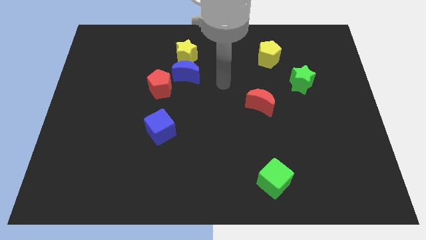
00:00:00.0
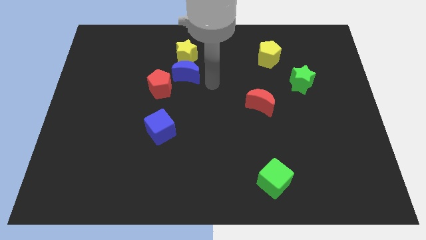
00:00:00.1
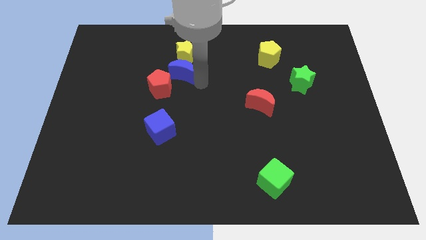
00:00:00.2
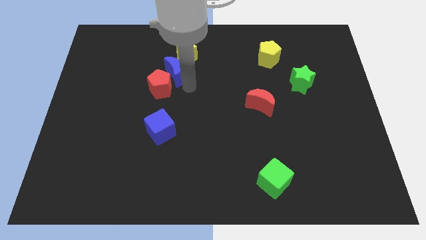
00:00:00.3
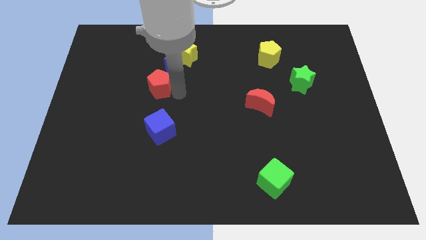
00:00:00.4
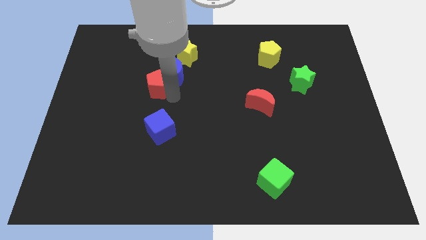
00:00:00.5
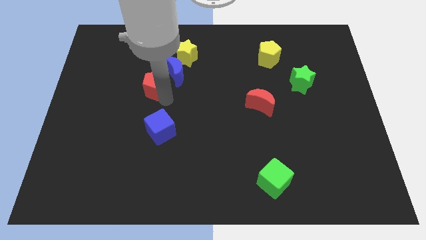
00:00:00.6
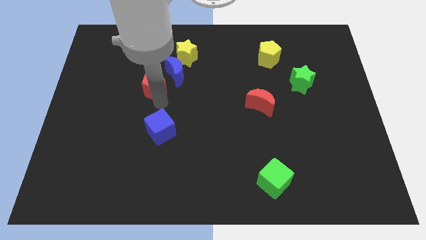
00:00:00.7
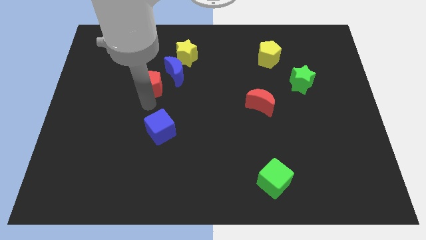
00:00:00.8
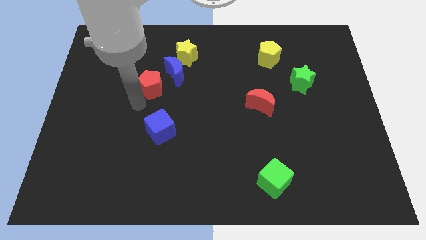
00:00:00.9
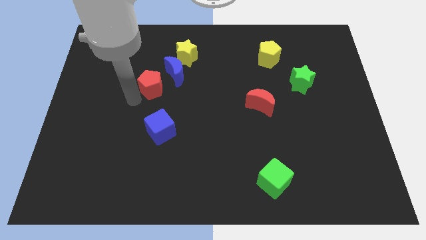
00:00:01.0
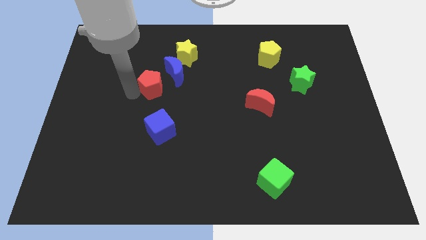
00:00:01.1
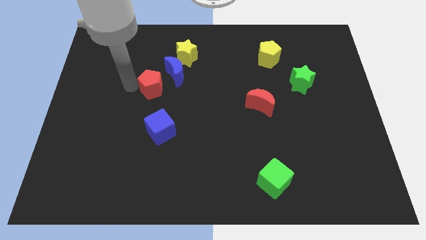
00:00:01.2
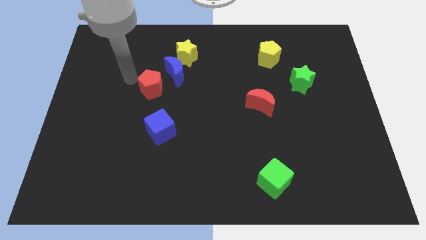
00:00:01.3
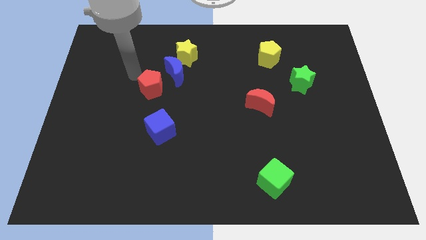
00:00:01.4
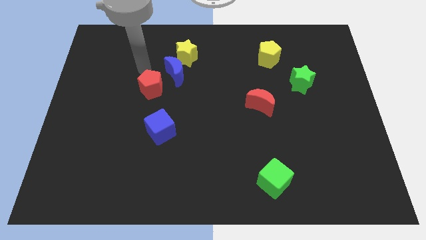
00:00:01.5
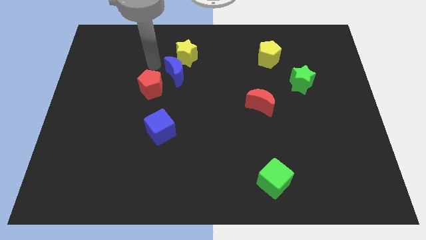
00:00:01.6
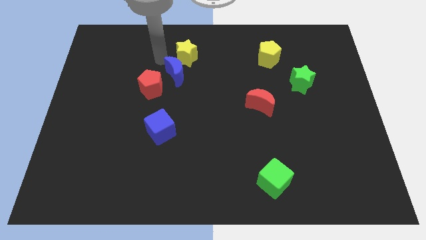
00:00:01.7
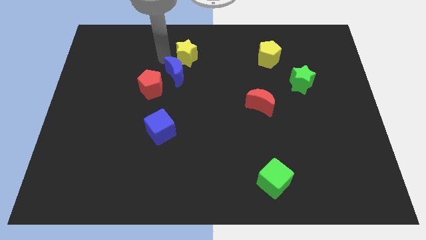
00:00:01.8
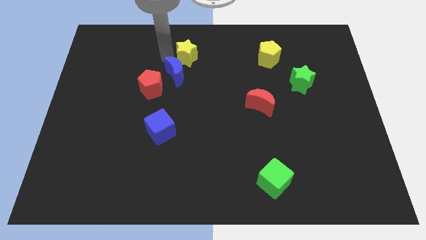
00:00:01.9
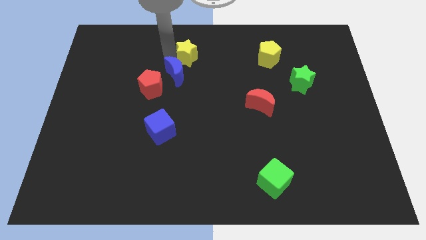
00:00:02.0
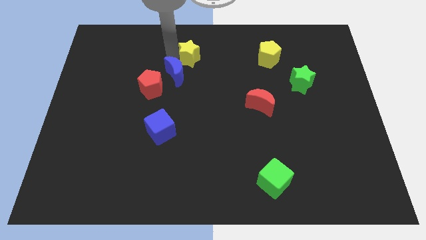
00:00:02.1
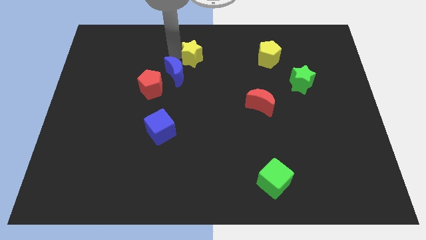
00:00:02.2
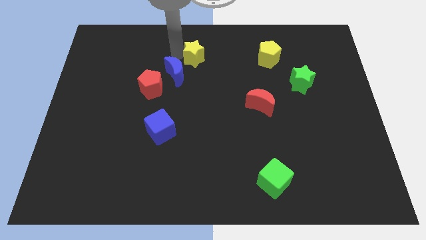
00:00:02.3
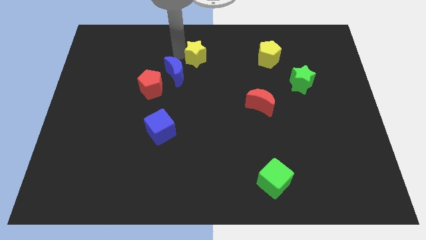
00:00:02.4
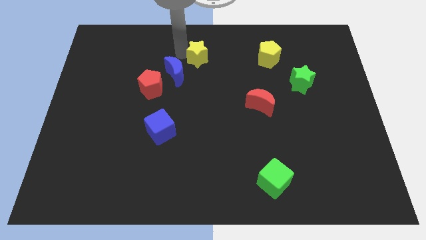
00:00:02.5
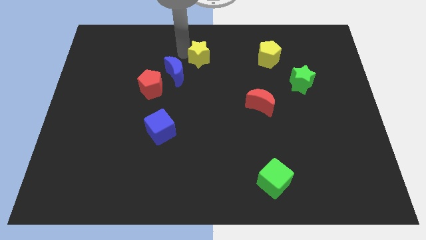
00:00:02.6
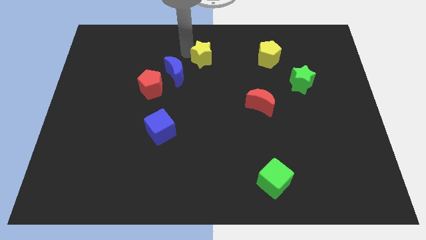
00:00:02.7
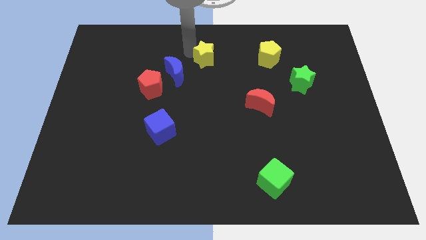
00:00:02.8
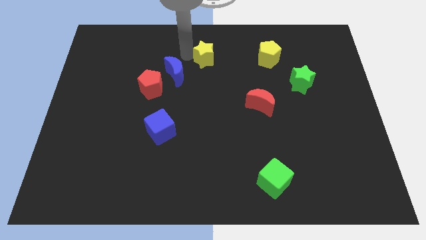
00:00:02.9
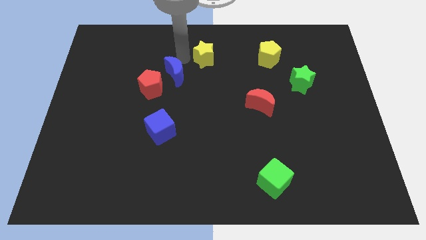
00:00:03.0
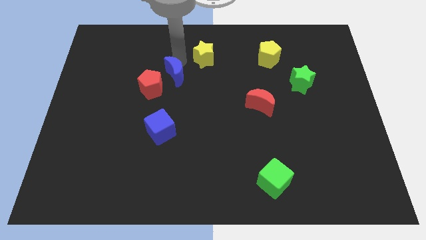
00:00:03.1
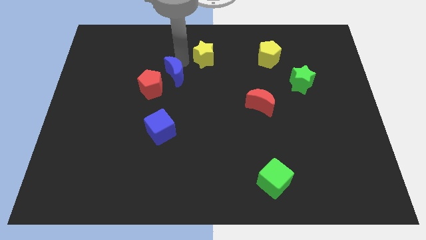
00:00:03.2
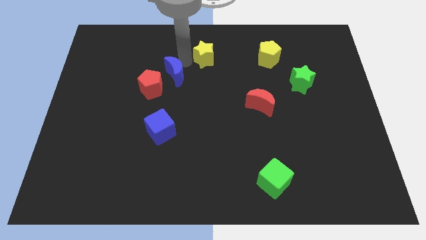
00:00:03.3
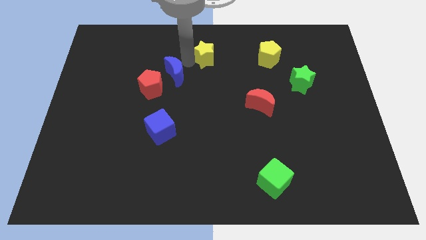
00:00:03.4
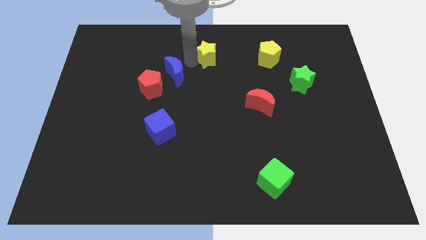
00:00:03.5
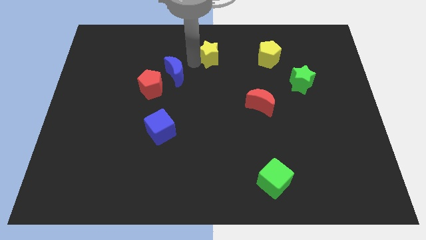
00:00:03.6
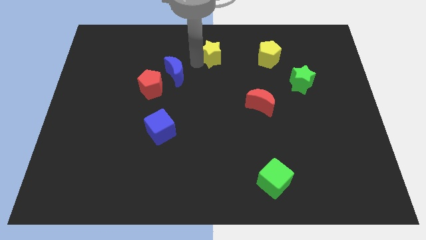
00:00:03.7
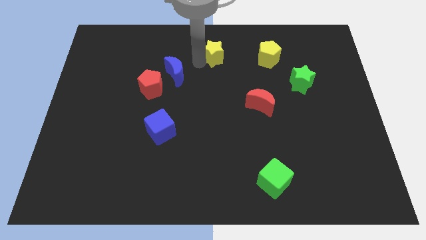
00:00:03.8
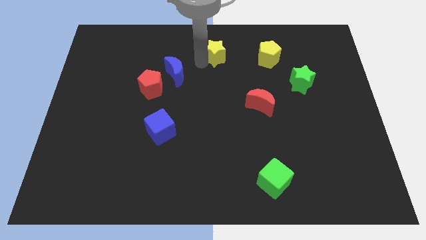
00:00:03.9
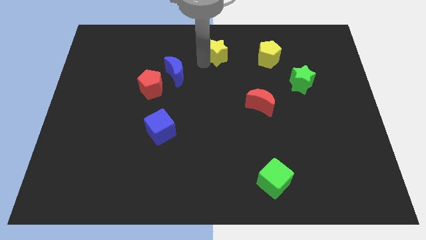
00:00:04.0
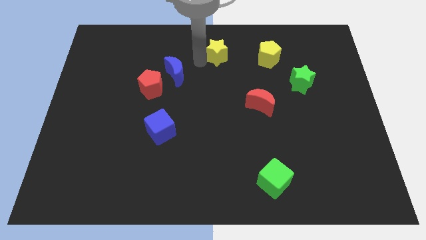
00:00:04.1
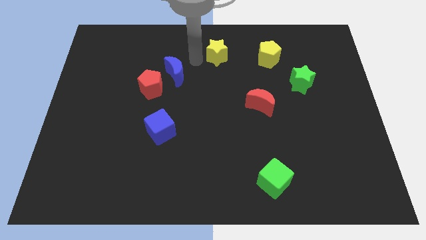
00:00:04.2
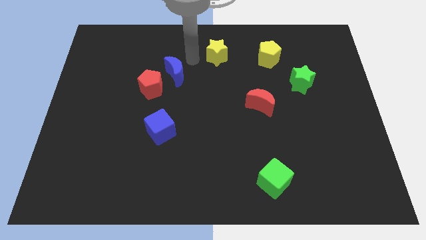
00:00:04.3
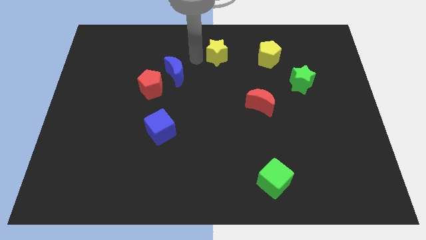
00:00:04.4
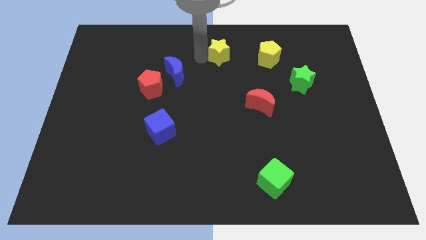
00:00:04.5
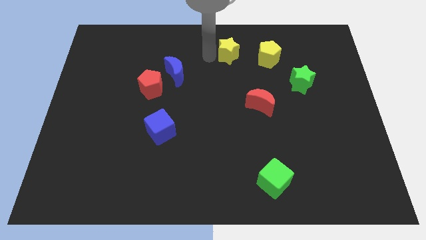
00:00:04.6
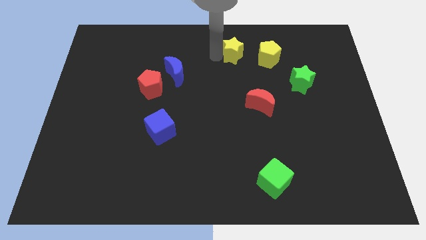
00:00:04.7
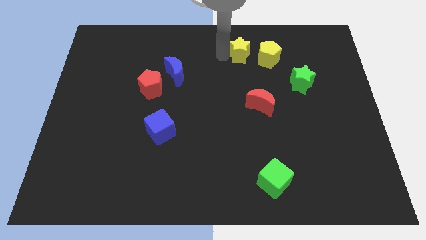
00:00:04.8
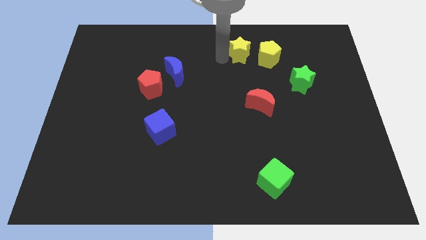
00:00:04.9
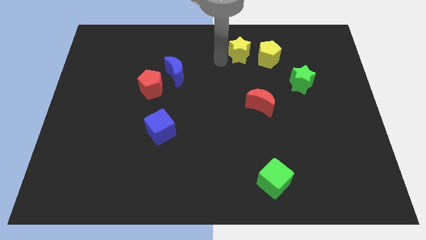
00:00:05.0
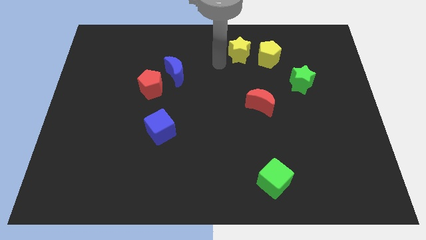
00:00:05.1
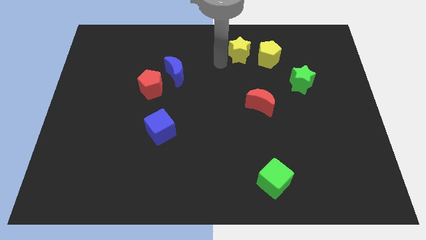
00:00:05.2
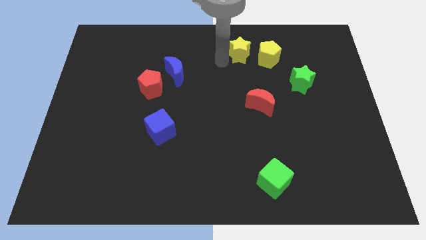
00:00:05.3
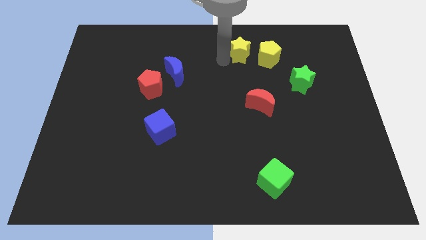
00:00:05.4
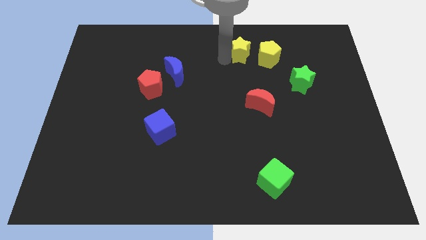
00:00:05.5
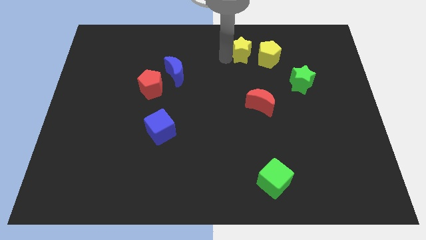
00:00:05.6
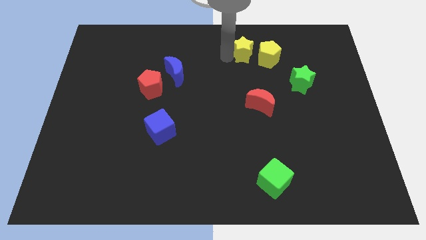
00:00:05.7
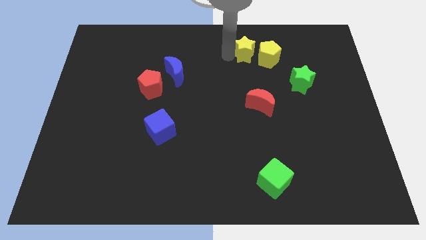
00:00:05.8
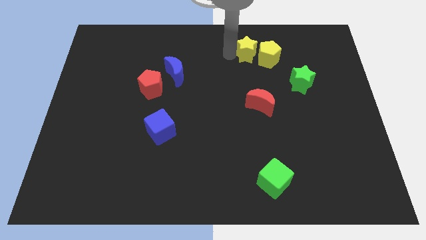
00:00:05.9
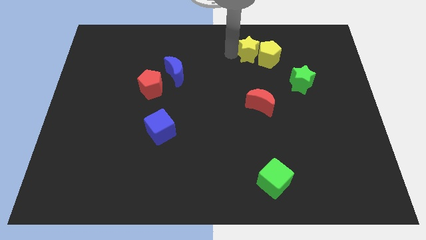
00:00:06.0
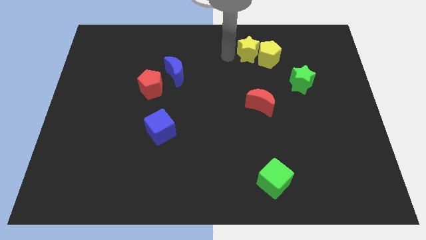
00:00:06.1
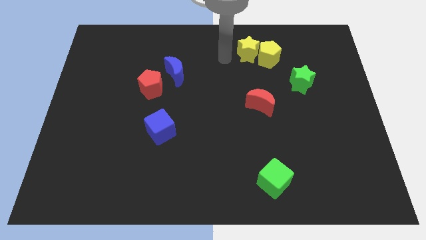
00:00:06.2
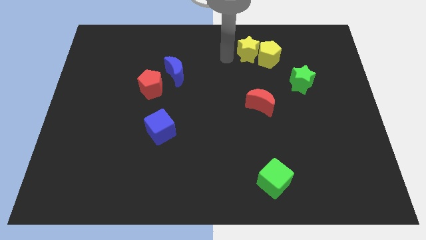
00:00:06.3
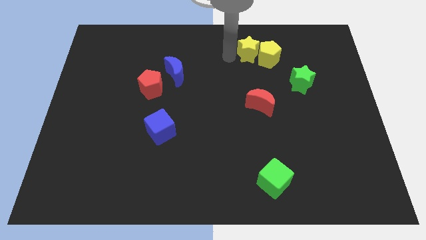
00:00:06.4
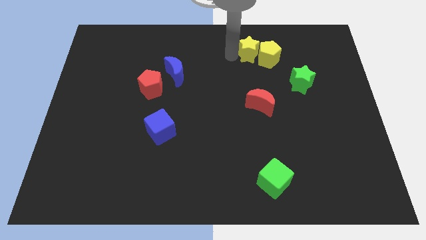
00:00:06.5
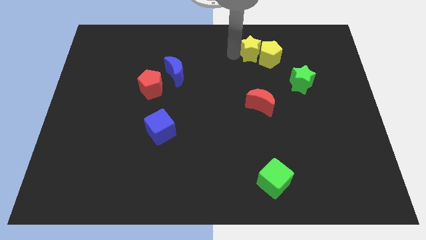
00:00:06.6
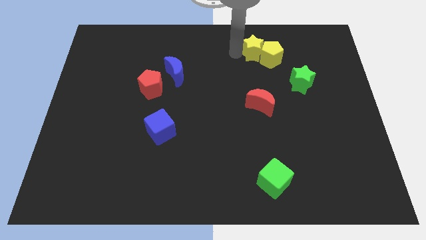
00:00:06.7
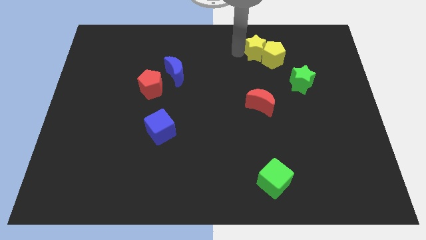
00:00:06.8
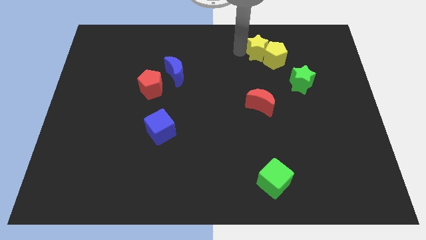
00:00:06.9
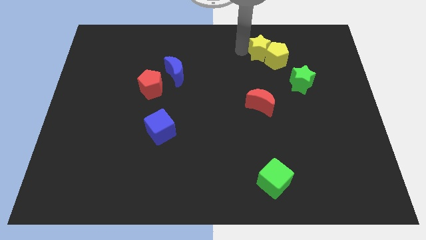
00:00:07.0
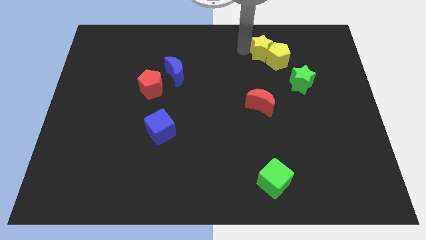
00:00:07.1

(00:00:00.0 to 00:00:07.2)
slide the yellow star to the right

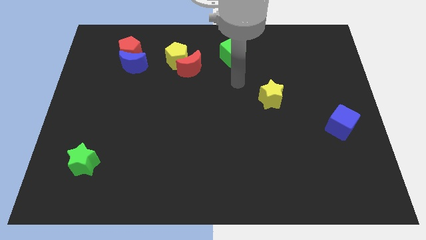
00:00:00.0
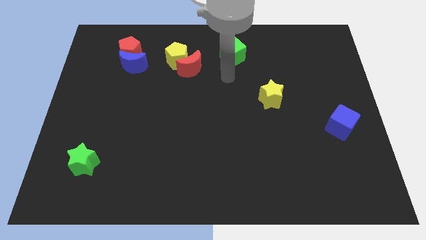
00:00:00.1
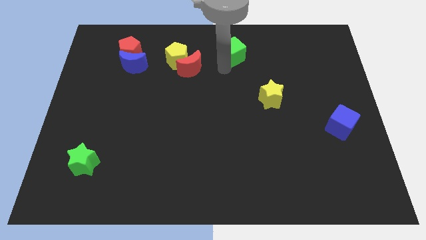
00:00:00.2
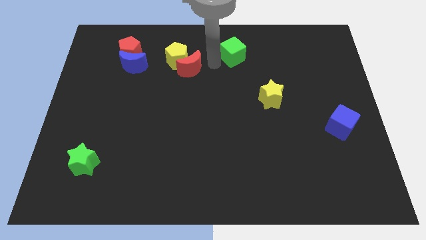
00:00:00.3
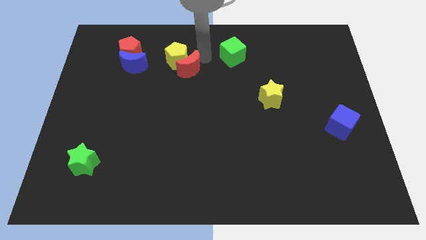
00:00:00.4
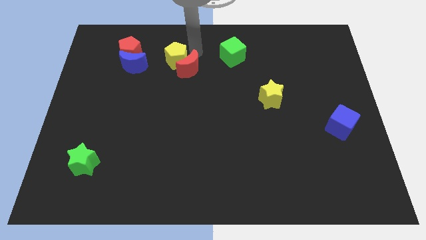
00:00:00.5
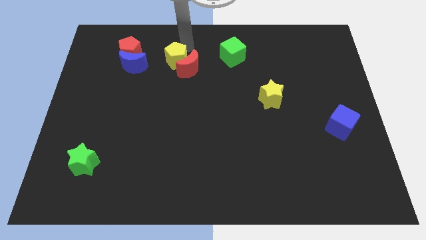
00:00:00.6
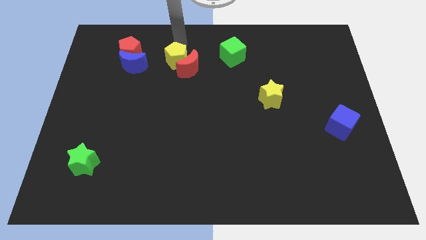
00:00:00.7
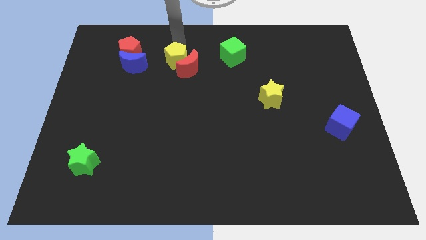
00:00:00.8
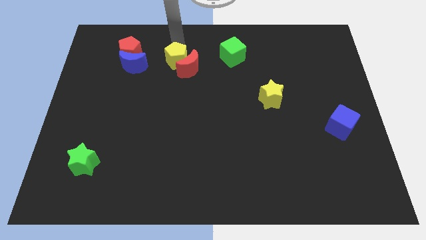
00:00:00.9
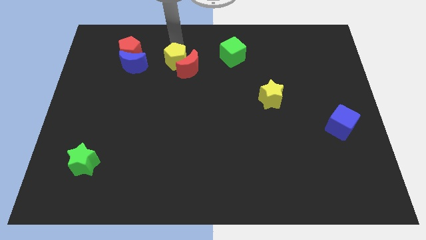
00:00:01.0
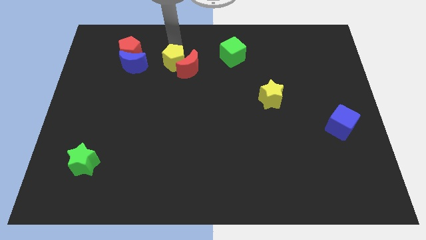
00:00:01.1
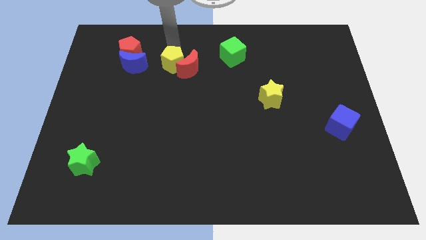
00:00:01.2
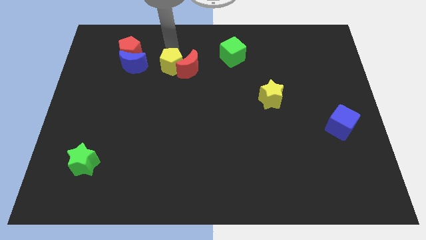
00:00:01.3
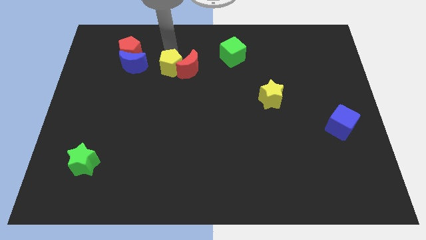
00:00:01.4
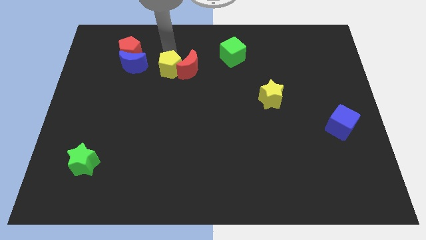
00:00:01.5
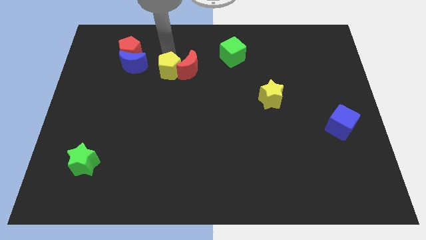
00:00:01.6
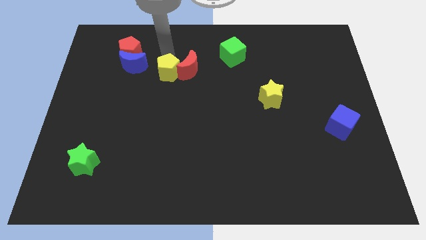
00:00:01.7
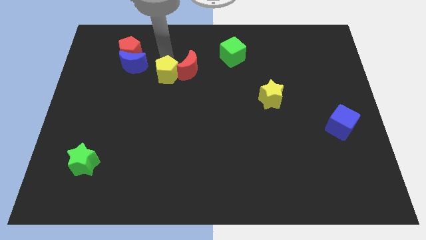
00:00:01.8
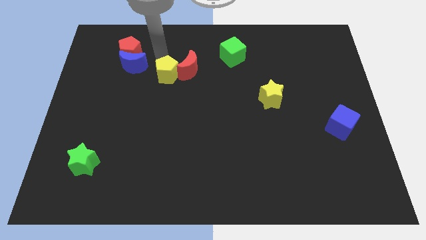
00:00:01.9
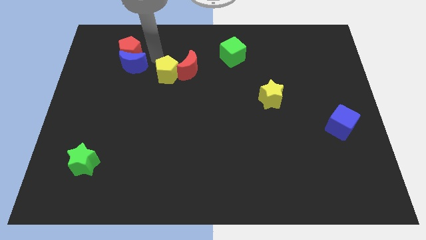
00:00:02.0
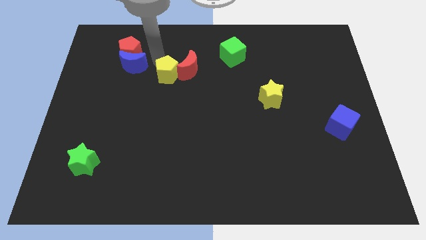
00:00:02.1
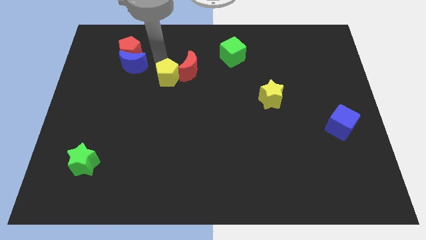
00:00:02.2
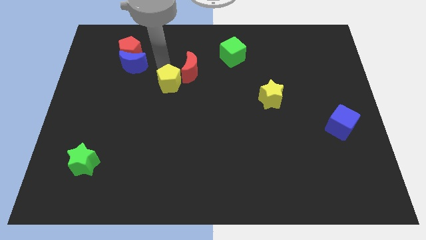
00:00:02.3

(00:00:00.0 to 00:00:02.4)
slightly slide the yellow pentagon down
